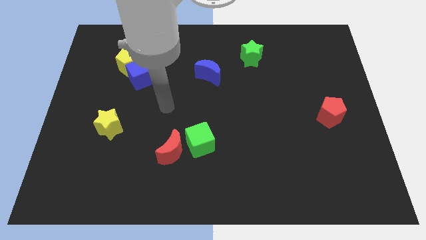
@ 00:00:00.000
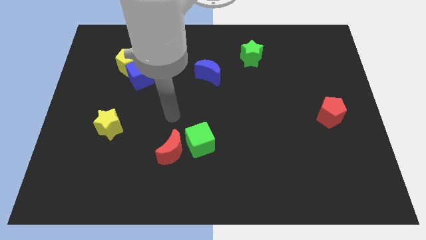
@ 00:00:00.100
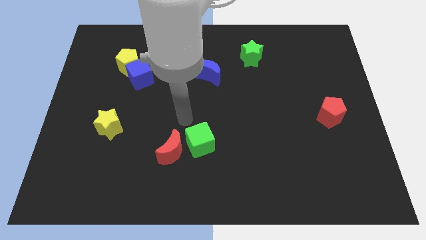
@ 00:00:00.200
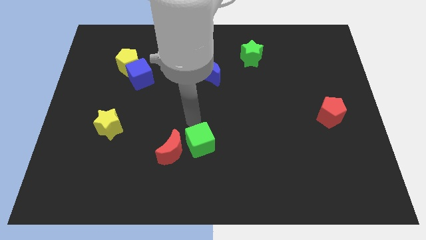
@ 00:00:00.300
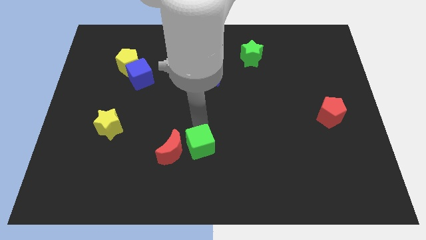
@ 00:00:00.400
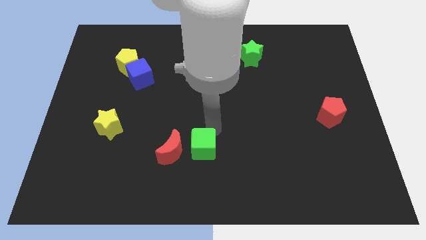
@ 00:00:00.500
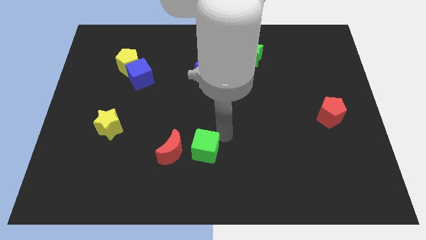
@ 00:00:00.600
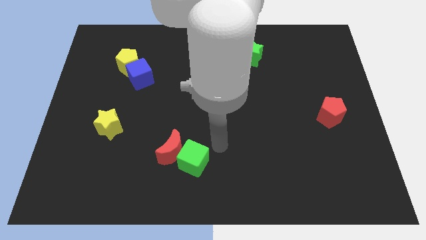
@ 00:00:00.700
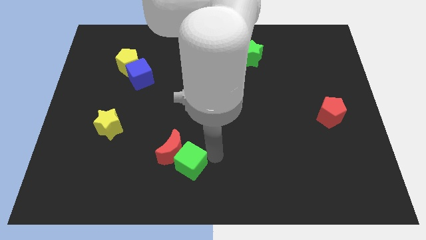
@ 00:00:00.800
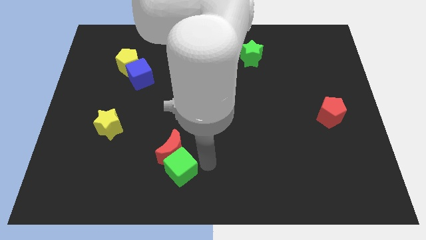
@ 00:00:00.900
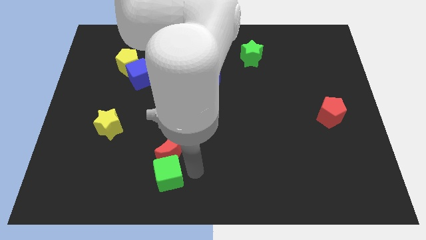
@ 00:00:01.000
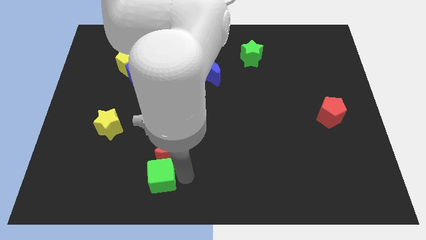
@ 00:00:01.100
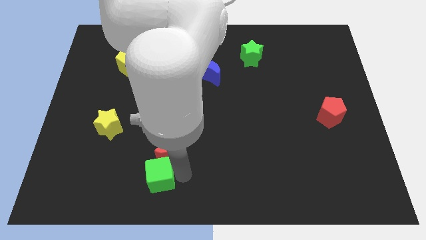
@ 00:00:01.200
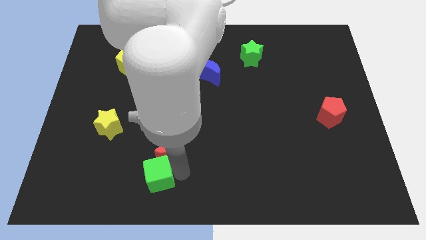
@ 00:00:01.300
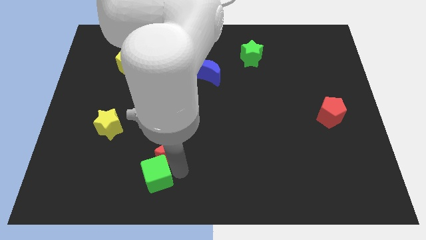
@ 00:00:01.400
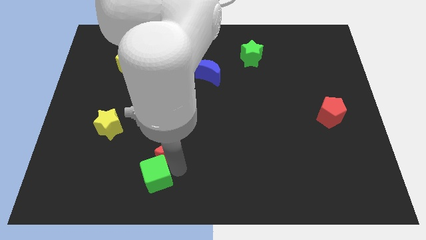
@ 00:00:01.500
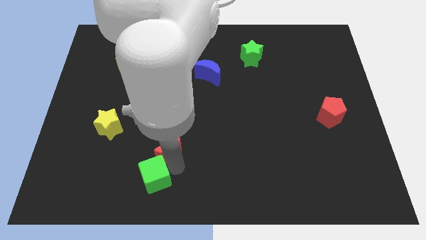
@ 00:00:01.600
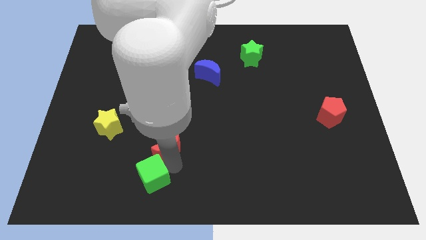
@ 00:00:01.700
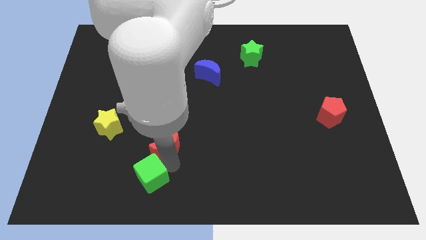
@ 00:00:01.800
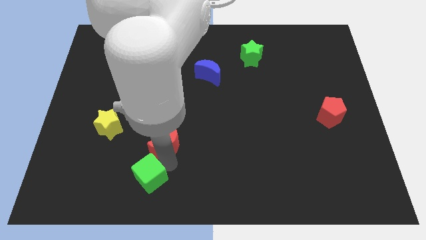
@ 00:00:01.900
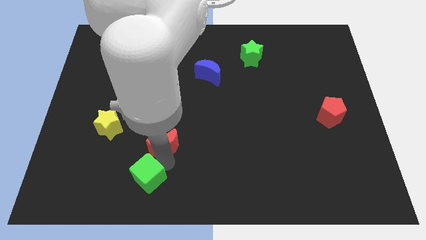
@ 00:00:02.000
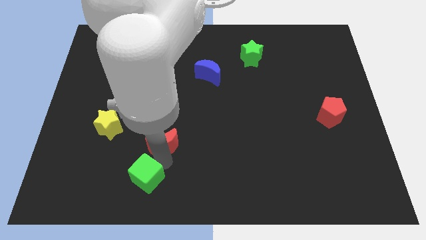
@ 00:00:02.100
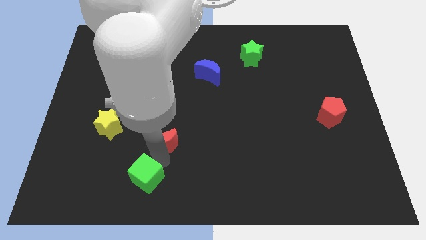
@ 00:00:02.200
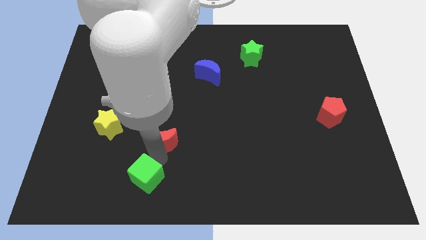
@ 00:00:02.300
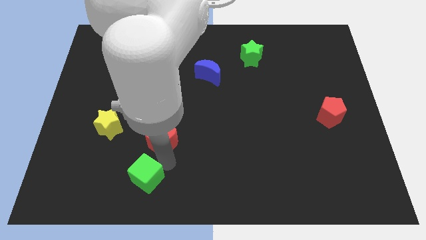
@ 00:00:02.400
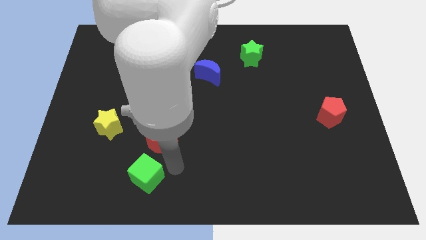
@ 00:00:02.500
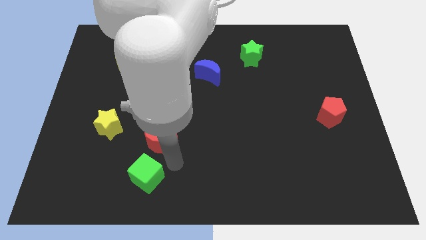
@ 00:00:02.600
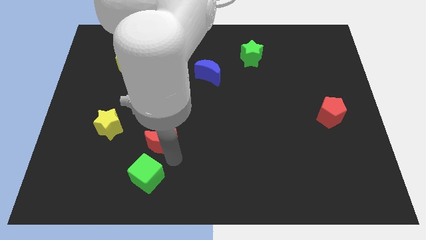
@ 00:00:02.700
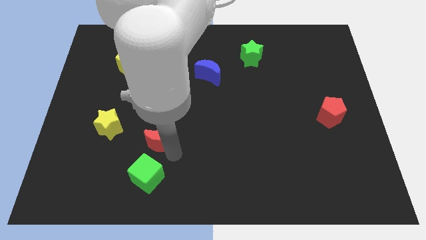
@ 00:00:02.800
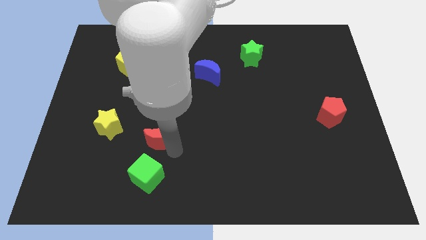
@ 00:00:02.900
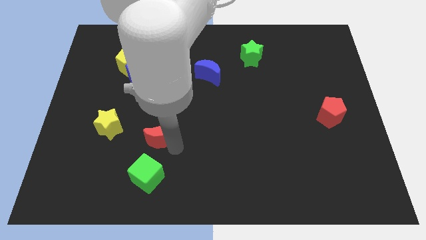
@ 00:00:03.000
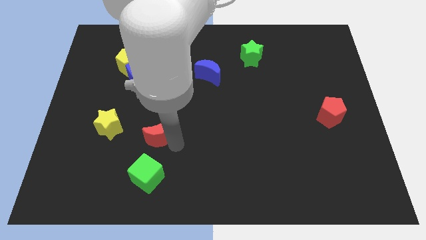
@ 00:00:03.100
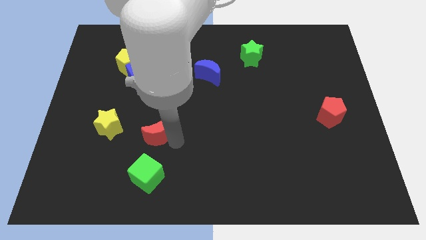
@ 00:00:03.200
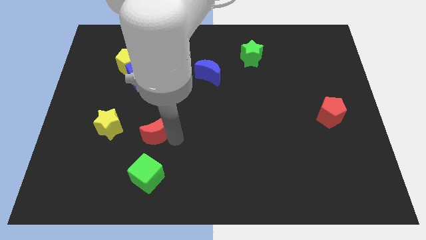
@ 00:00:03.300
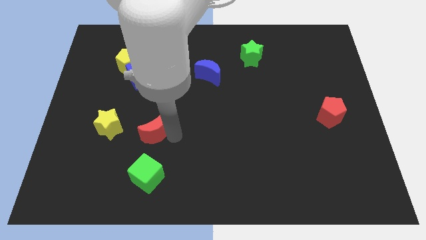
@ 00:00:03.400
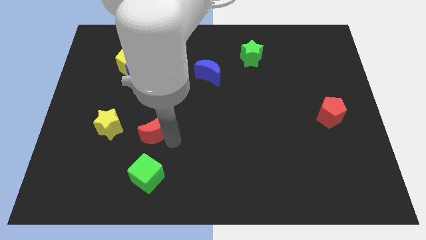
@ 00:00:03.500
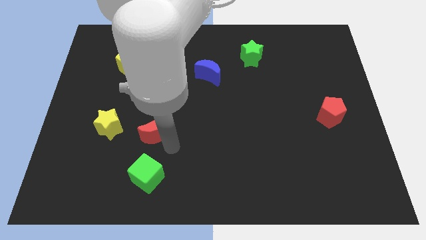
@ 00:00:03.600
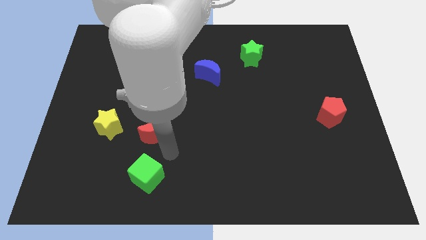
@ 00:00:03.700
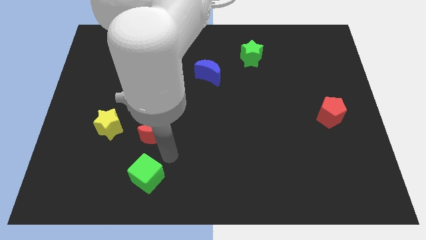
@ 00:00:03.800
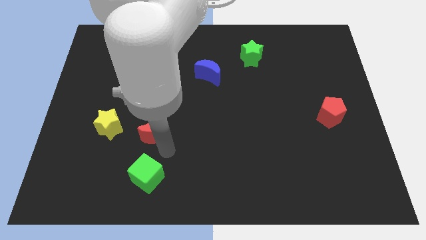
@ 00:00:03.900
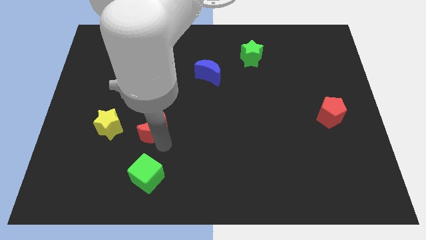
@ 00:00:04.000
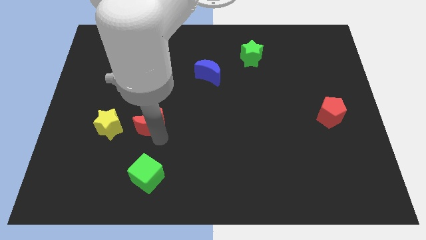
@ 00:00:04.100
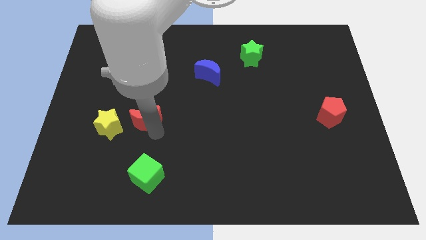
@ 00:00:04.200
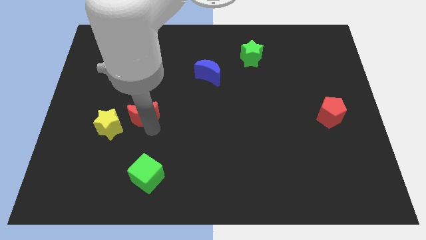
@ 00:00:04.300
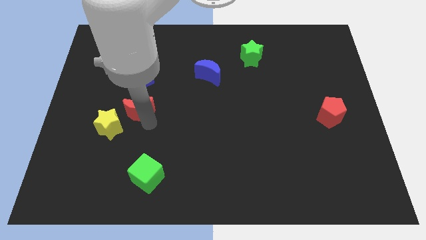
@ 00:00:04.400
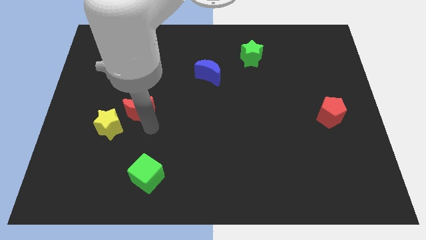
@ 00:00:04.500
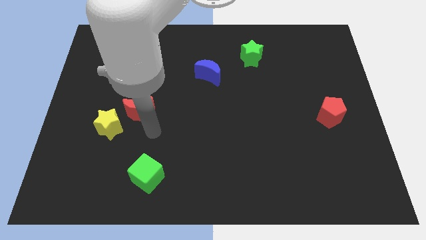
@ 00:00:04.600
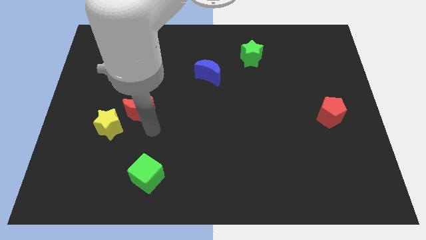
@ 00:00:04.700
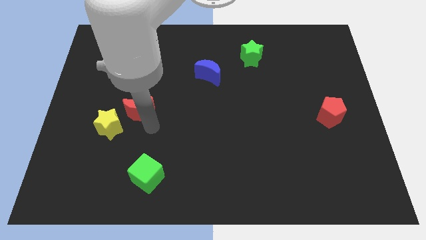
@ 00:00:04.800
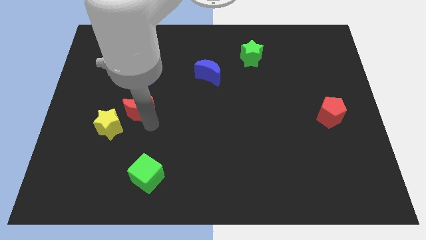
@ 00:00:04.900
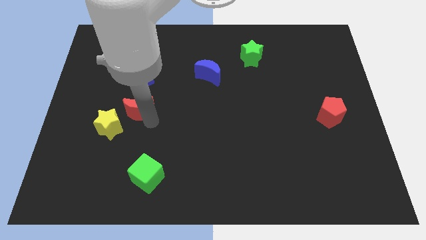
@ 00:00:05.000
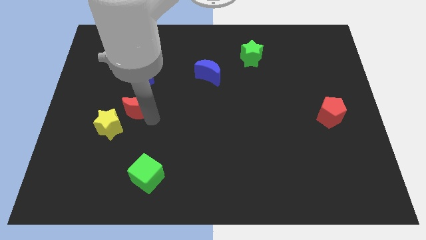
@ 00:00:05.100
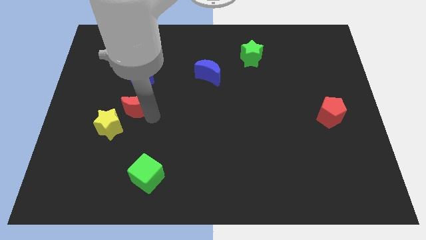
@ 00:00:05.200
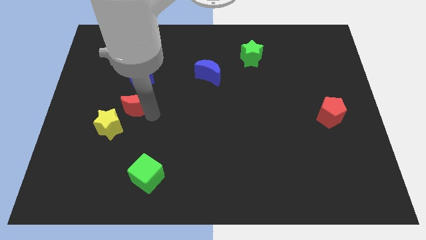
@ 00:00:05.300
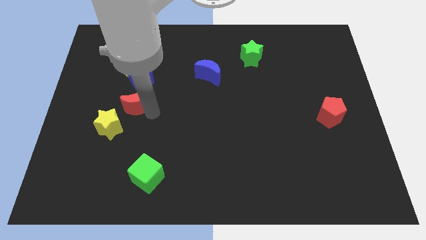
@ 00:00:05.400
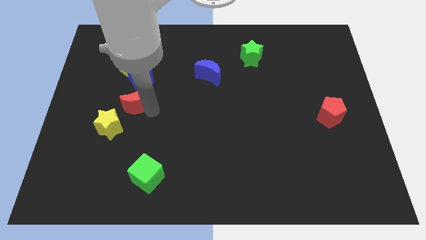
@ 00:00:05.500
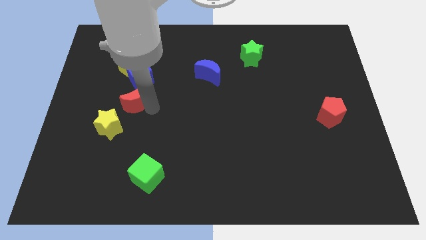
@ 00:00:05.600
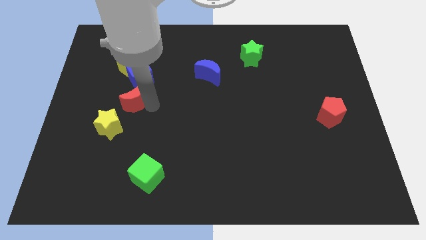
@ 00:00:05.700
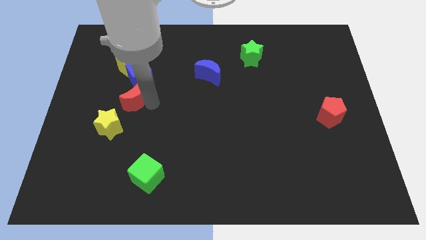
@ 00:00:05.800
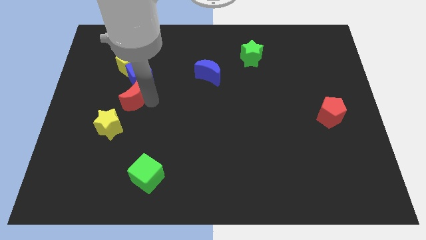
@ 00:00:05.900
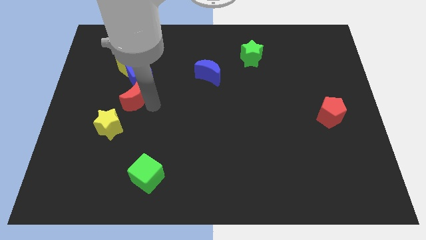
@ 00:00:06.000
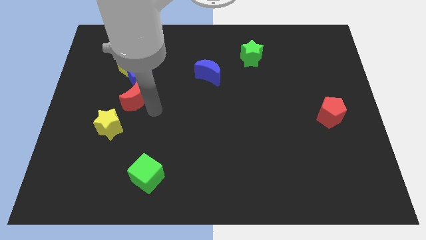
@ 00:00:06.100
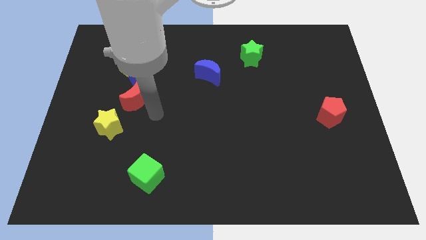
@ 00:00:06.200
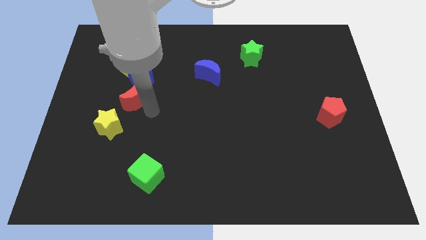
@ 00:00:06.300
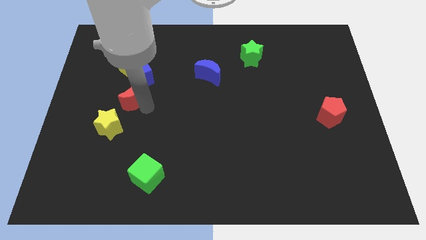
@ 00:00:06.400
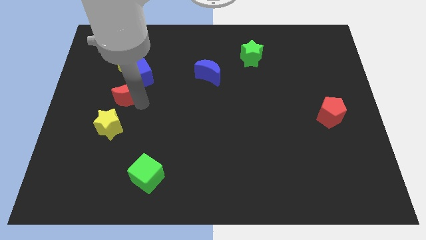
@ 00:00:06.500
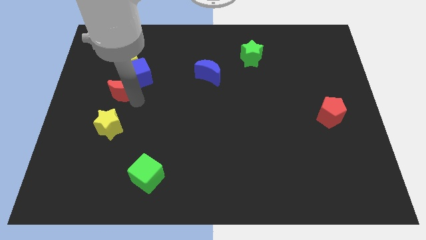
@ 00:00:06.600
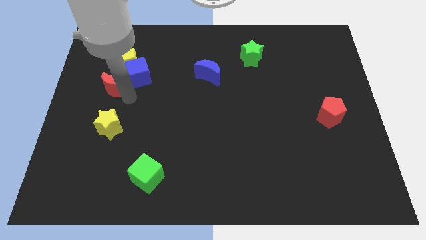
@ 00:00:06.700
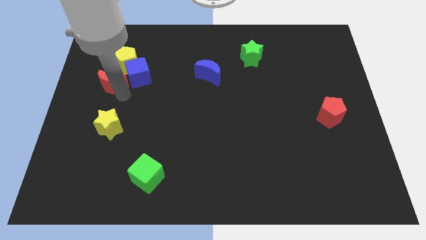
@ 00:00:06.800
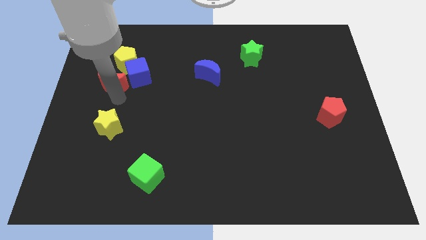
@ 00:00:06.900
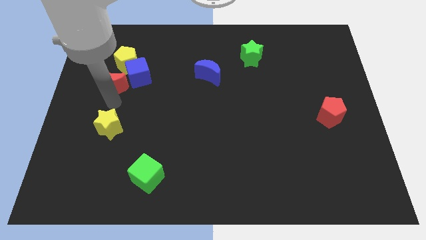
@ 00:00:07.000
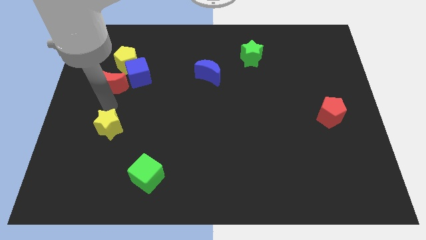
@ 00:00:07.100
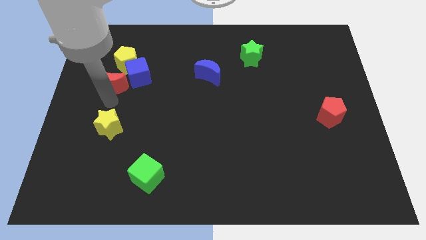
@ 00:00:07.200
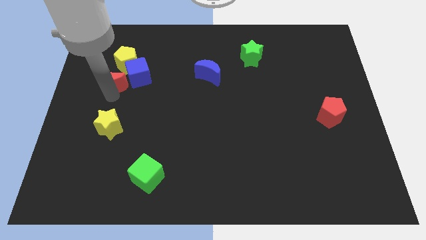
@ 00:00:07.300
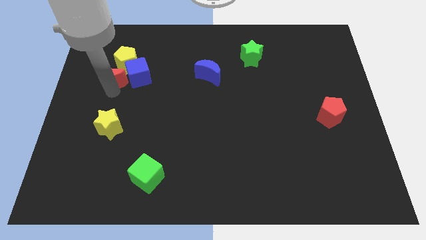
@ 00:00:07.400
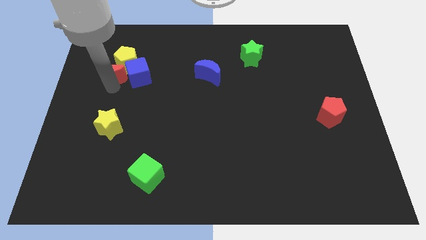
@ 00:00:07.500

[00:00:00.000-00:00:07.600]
slide the red moon next to the yellow pentagon
